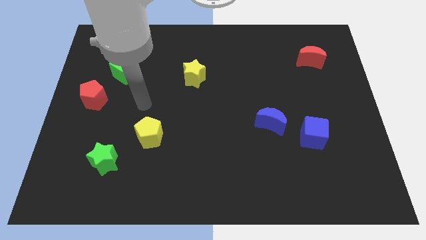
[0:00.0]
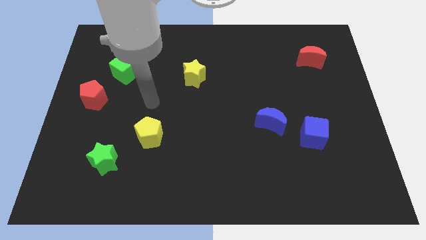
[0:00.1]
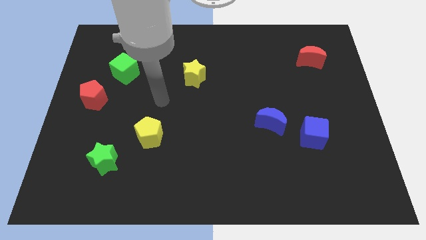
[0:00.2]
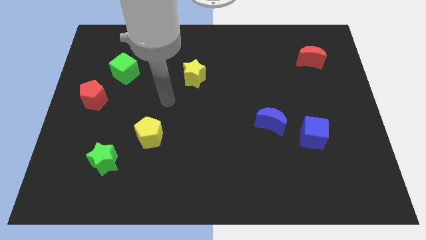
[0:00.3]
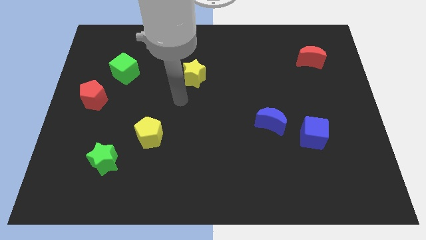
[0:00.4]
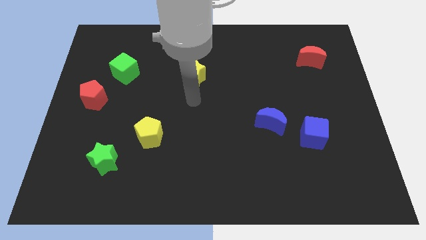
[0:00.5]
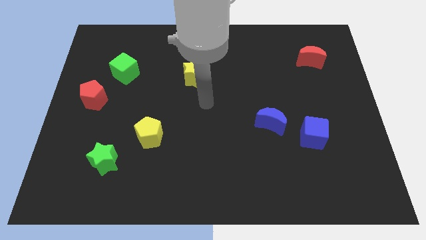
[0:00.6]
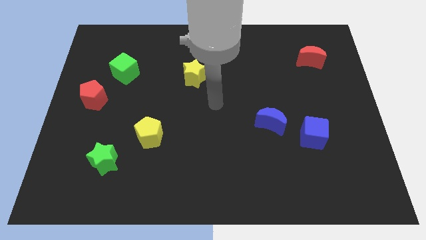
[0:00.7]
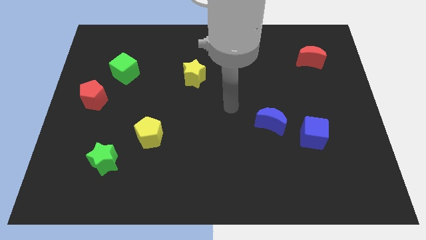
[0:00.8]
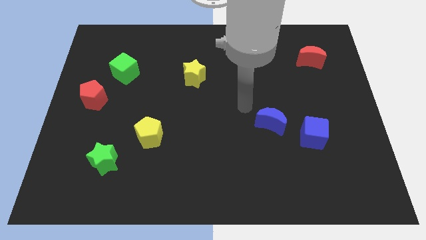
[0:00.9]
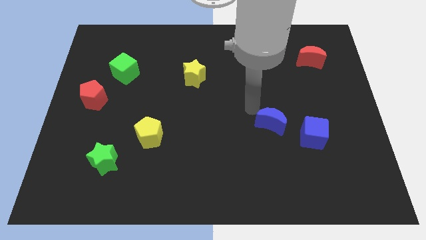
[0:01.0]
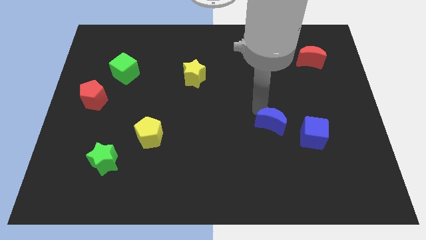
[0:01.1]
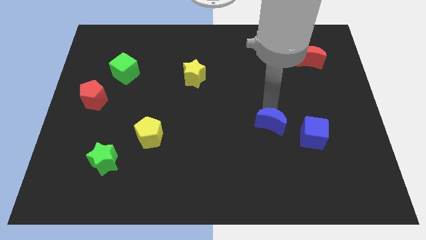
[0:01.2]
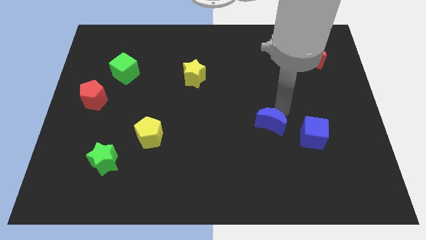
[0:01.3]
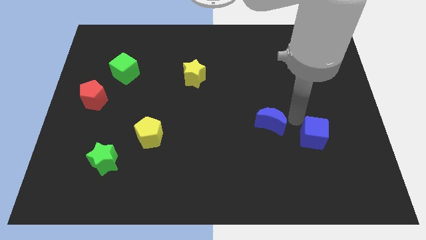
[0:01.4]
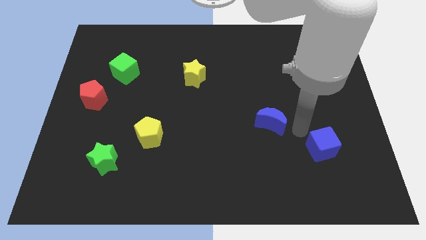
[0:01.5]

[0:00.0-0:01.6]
pull the blue moon apart from the blue cube

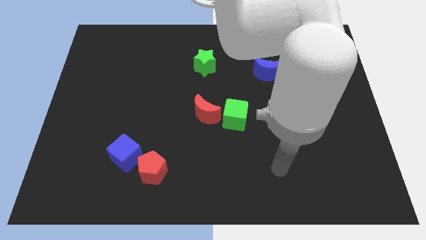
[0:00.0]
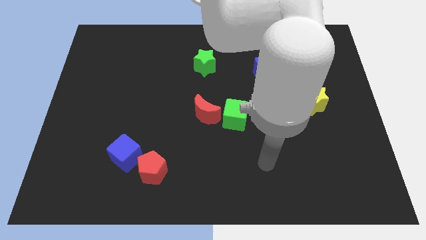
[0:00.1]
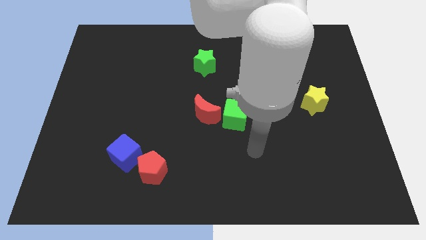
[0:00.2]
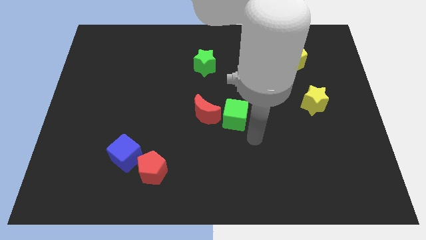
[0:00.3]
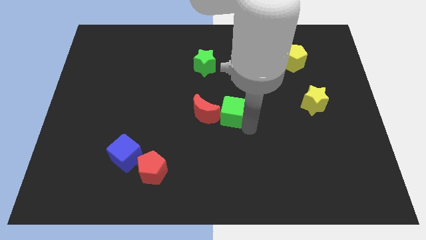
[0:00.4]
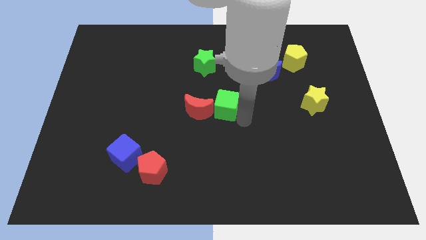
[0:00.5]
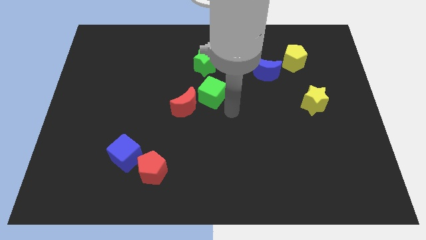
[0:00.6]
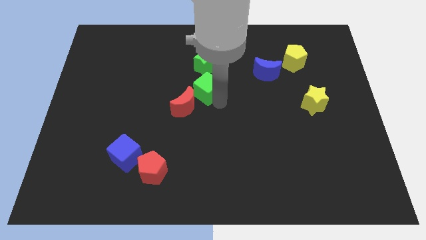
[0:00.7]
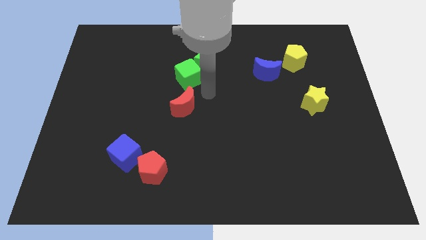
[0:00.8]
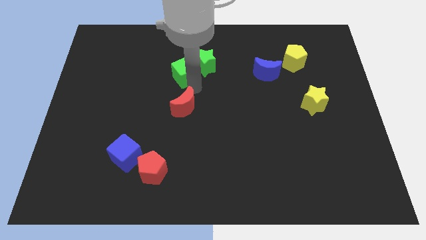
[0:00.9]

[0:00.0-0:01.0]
pull the red moon apart from the green cube

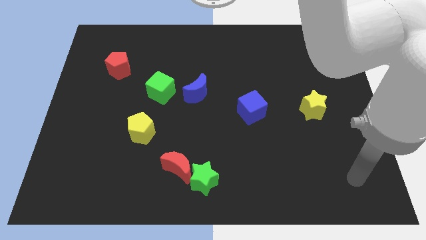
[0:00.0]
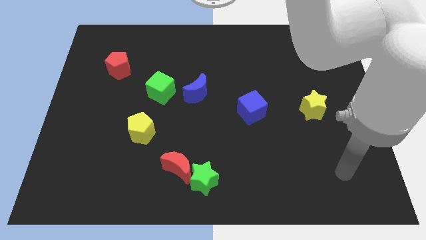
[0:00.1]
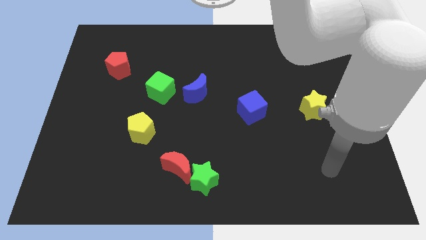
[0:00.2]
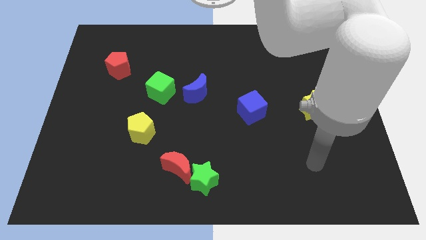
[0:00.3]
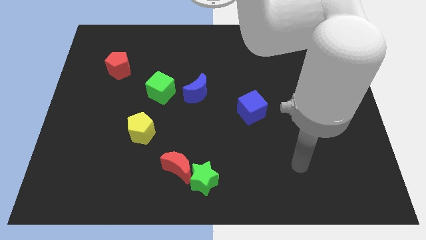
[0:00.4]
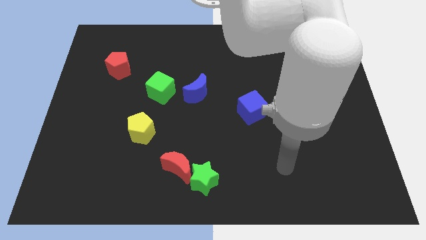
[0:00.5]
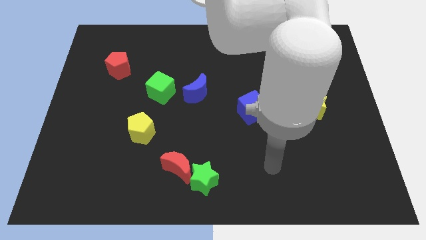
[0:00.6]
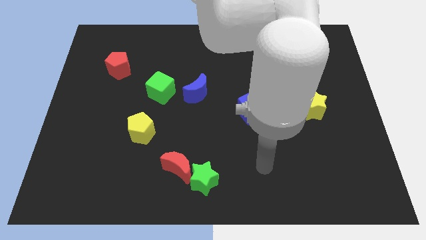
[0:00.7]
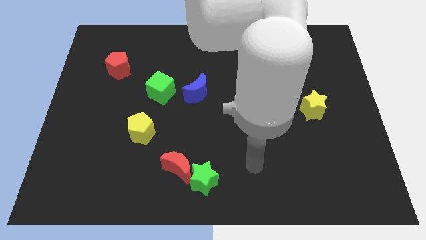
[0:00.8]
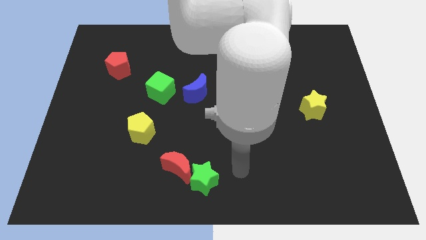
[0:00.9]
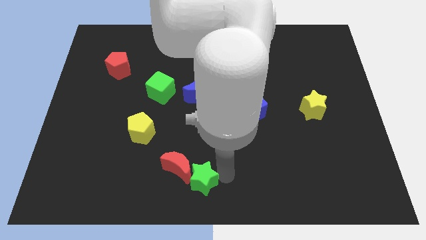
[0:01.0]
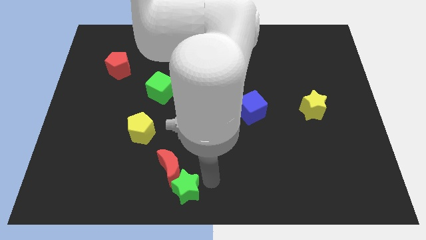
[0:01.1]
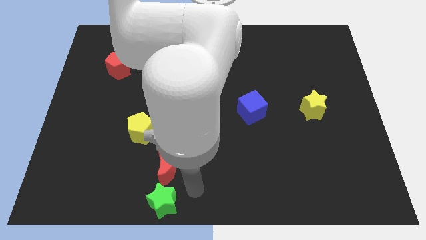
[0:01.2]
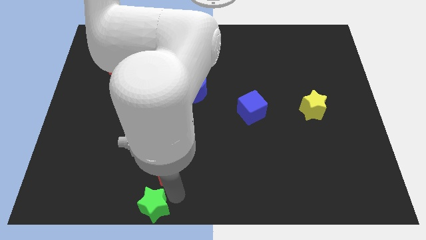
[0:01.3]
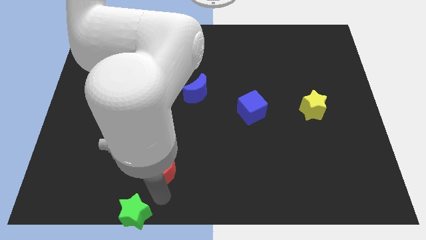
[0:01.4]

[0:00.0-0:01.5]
separate the red moon from the green star

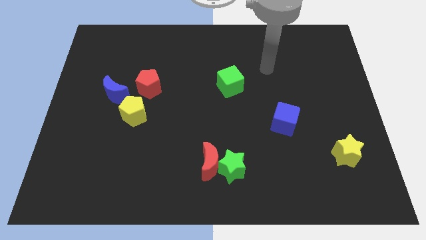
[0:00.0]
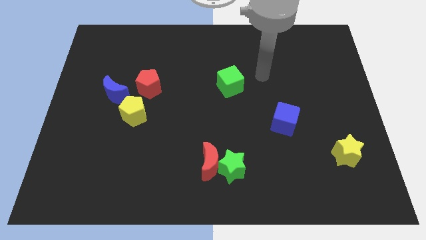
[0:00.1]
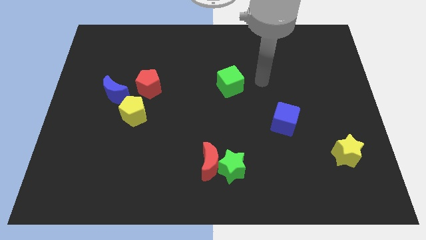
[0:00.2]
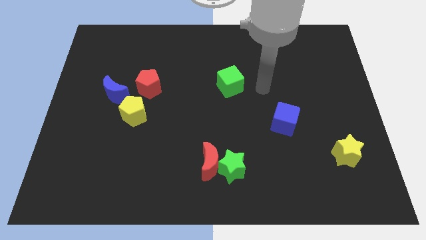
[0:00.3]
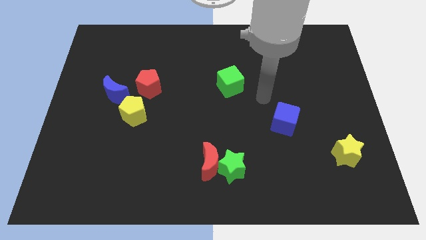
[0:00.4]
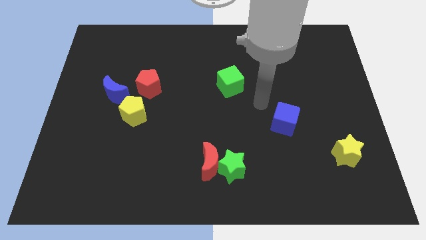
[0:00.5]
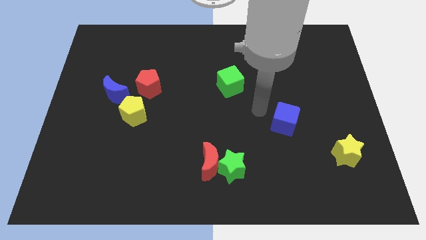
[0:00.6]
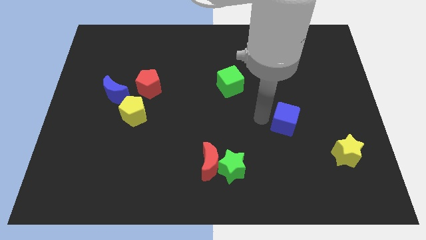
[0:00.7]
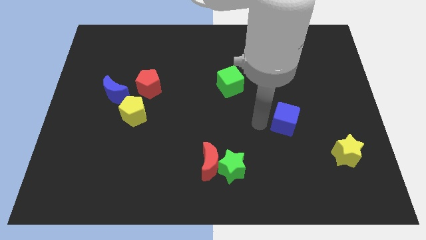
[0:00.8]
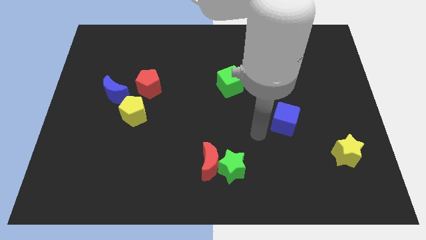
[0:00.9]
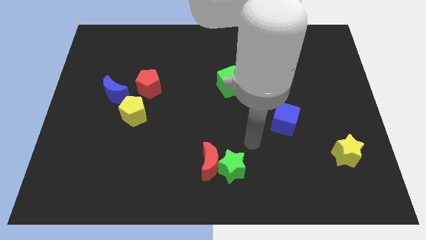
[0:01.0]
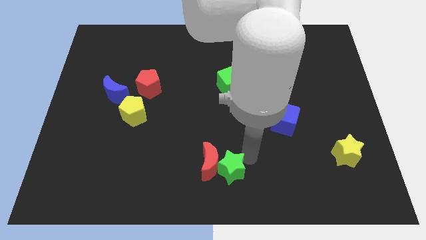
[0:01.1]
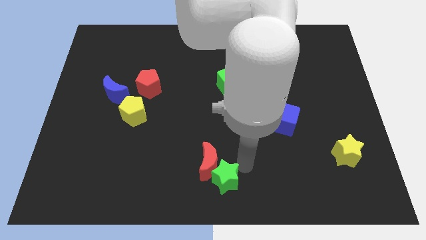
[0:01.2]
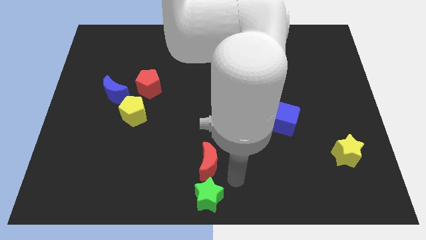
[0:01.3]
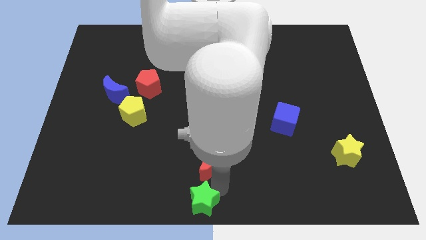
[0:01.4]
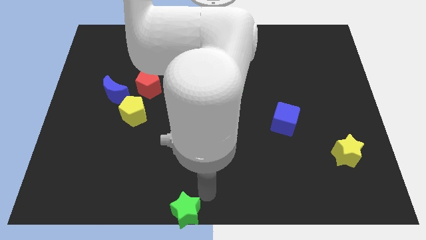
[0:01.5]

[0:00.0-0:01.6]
move the red moon away from the green star

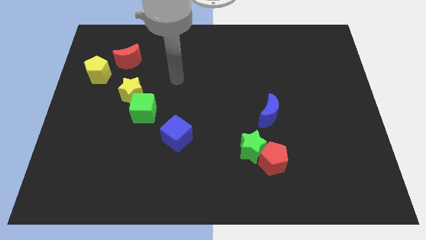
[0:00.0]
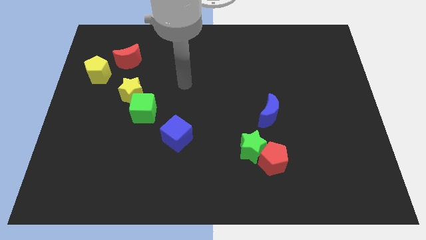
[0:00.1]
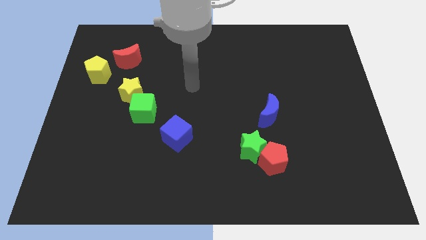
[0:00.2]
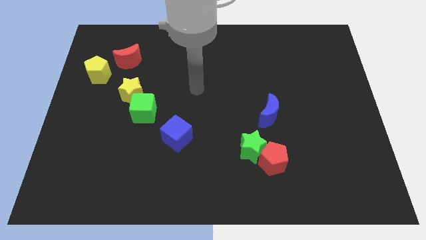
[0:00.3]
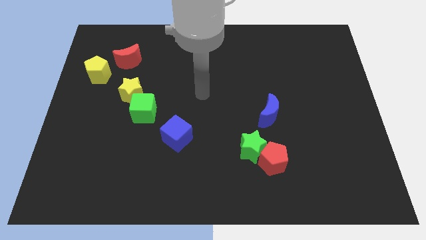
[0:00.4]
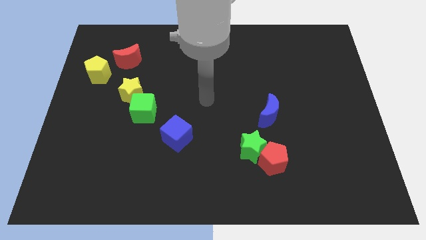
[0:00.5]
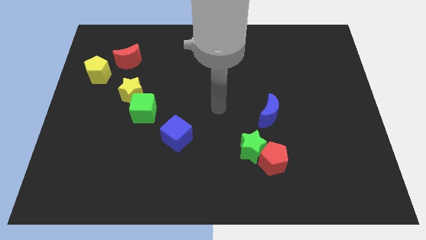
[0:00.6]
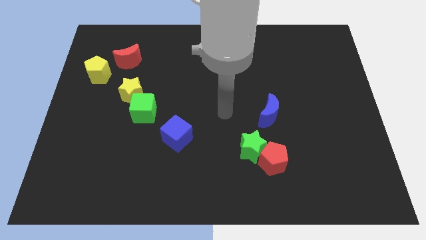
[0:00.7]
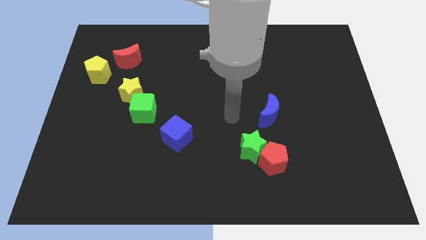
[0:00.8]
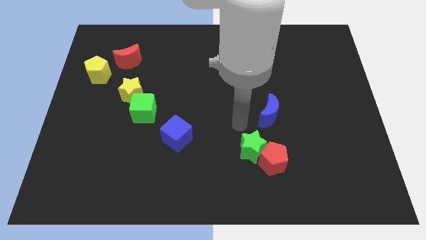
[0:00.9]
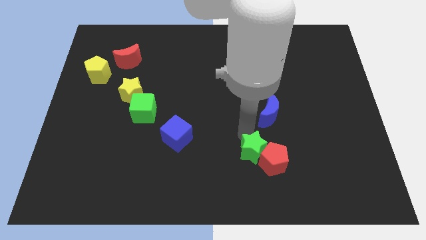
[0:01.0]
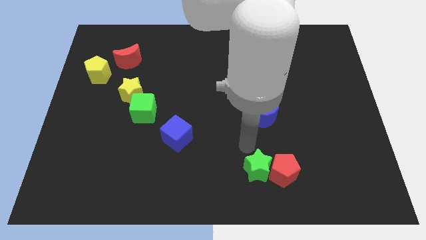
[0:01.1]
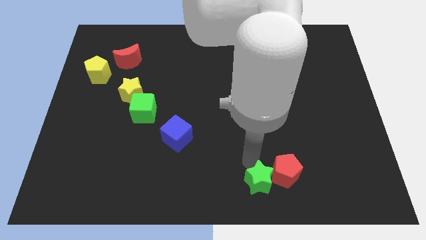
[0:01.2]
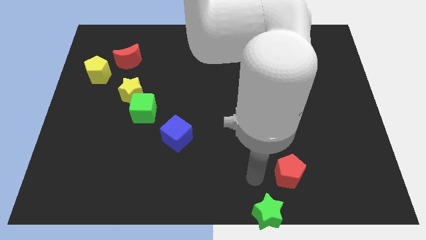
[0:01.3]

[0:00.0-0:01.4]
pull the red pentagon apart from the green star

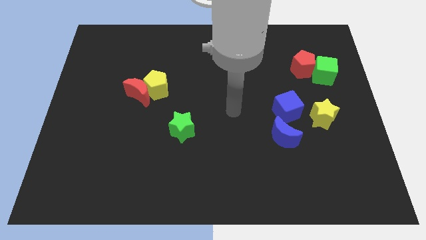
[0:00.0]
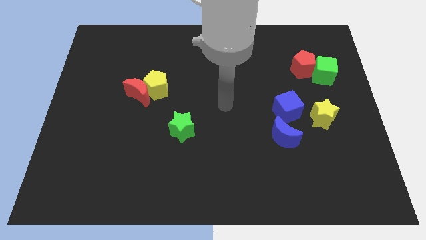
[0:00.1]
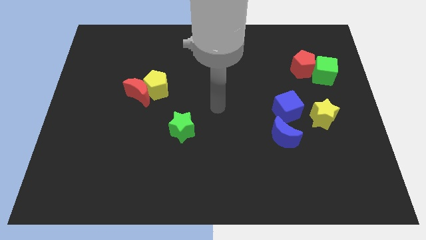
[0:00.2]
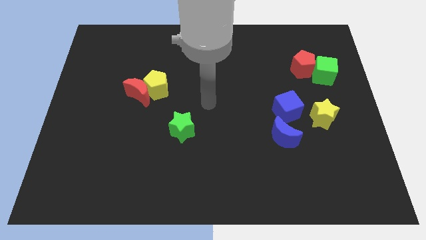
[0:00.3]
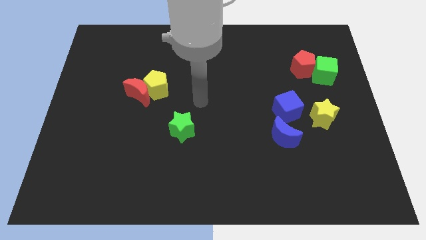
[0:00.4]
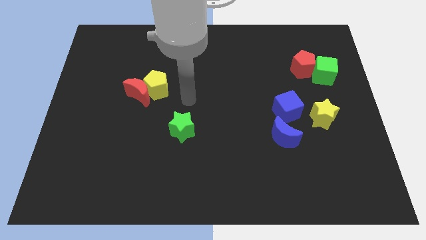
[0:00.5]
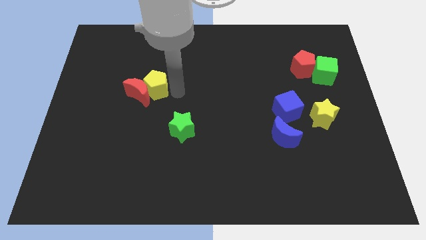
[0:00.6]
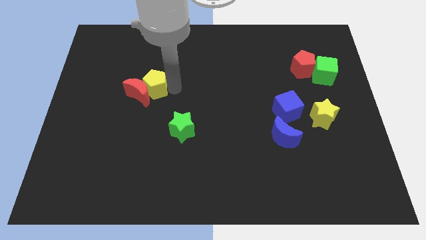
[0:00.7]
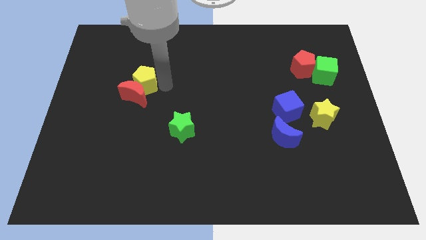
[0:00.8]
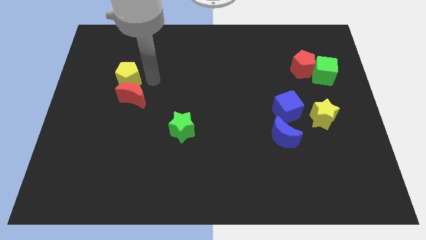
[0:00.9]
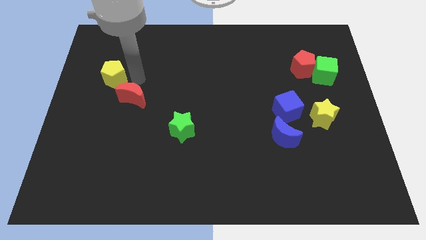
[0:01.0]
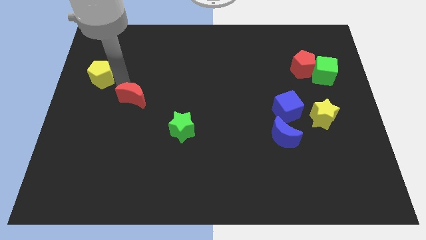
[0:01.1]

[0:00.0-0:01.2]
pull the red moon apart from the yellow pentagon

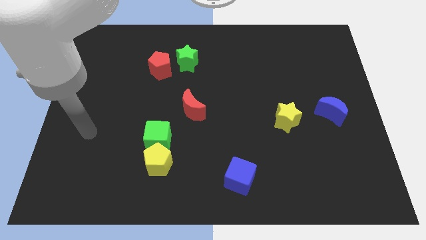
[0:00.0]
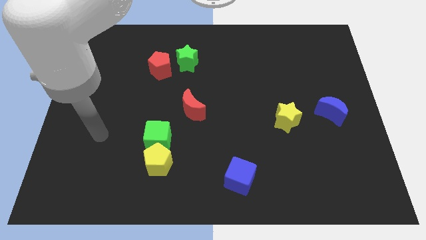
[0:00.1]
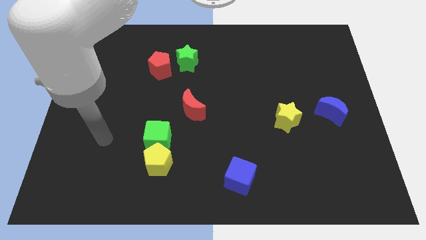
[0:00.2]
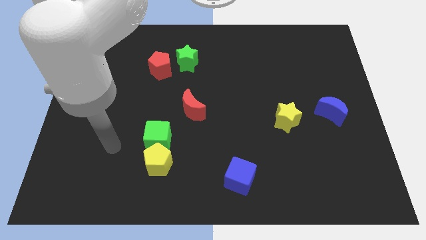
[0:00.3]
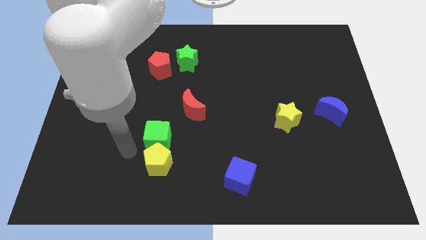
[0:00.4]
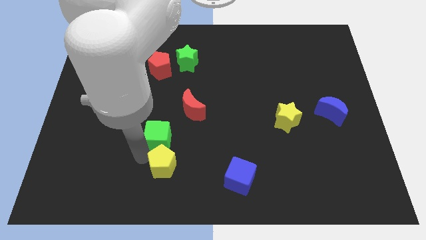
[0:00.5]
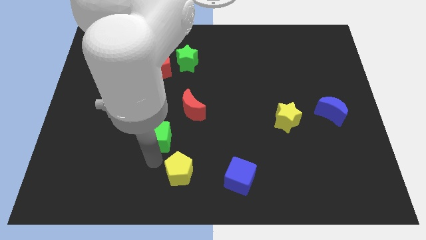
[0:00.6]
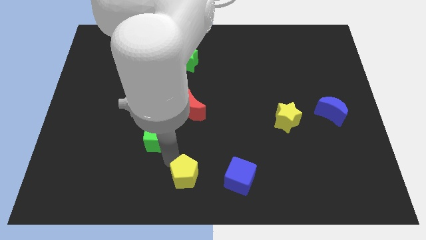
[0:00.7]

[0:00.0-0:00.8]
pull the green cube apart from the yellow pentagon

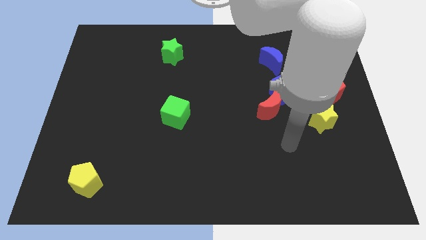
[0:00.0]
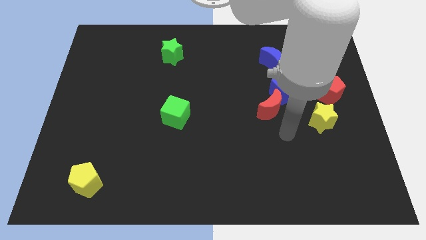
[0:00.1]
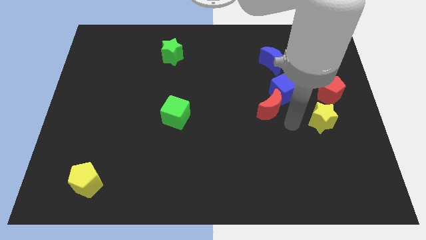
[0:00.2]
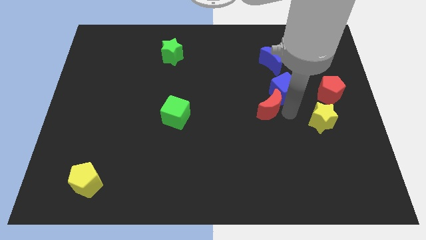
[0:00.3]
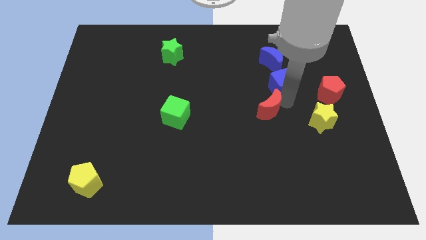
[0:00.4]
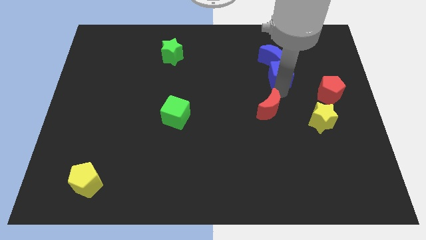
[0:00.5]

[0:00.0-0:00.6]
move the red moon away from the blue cube
